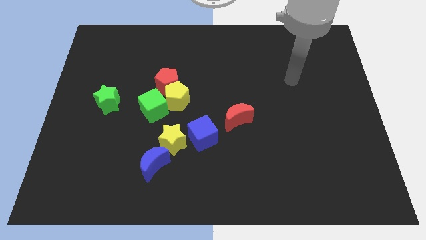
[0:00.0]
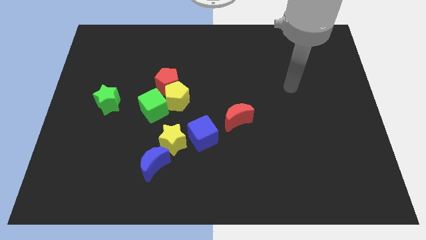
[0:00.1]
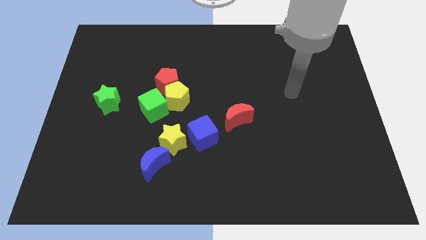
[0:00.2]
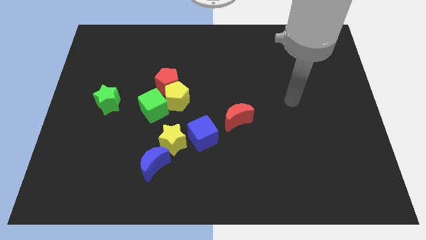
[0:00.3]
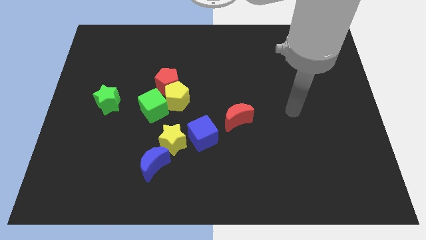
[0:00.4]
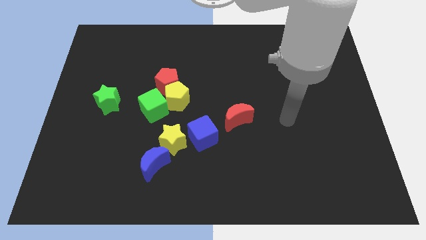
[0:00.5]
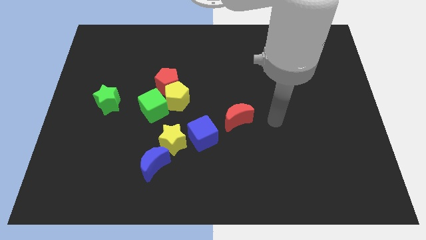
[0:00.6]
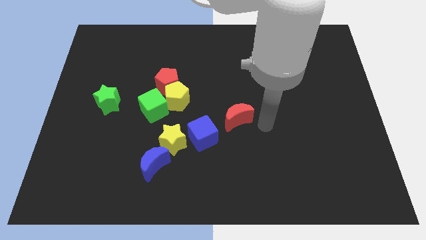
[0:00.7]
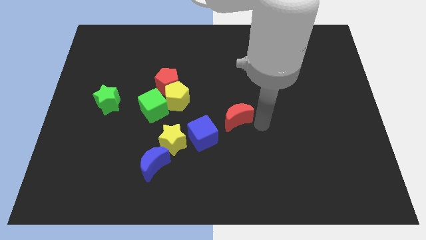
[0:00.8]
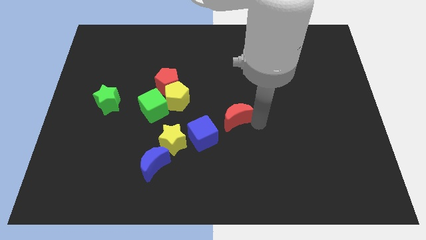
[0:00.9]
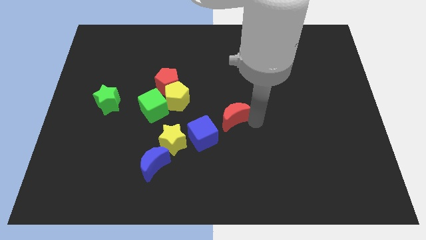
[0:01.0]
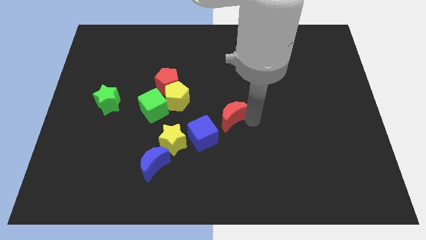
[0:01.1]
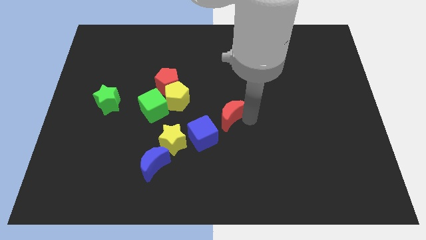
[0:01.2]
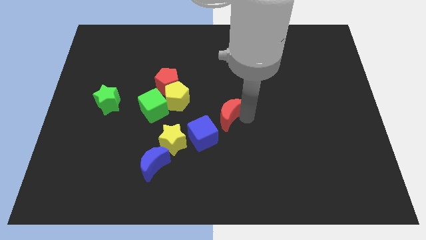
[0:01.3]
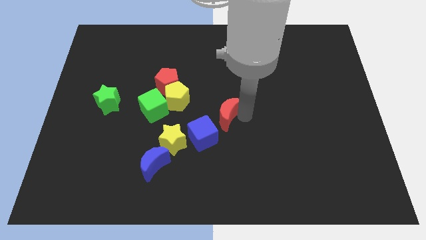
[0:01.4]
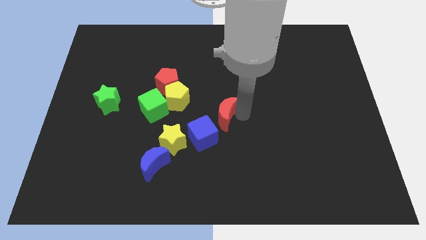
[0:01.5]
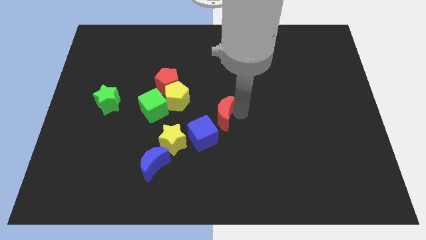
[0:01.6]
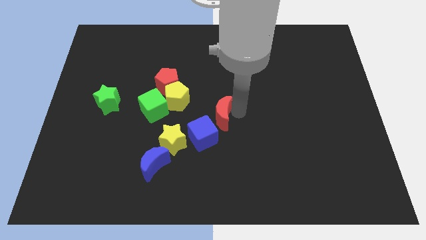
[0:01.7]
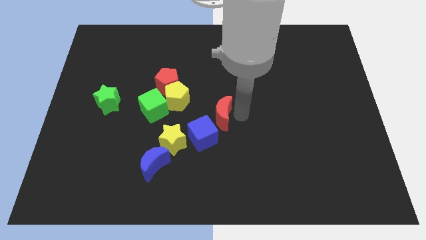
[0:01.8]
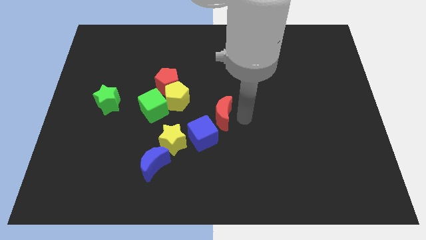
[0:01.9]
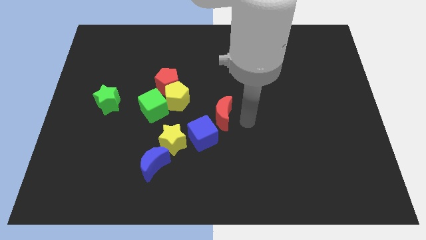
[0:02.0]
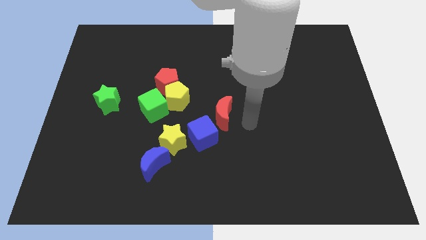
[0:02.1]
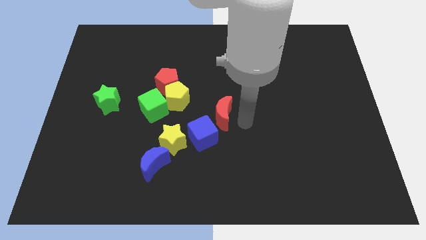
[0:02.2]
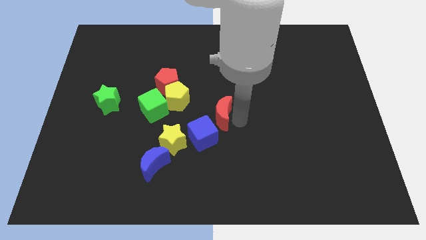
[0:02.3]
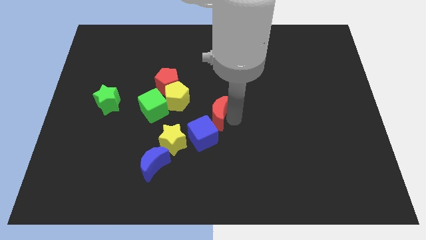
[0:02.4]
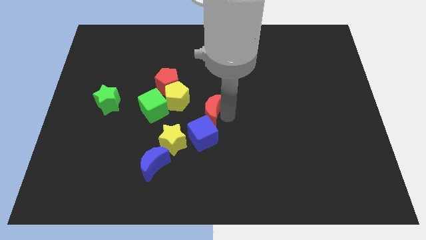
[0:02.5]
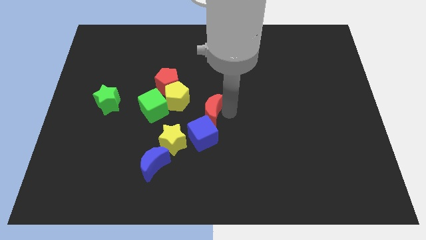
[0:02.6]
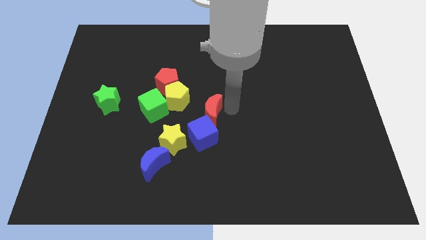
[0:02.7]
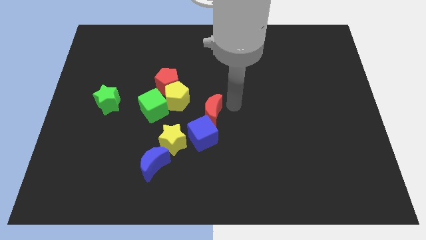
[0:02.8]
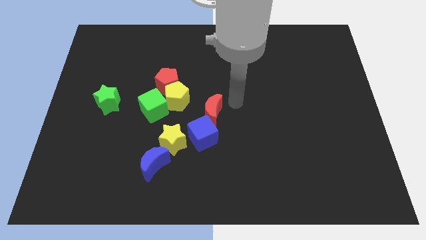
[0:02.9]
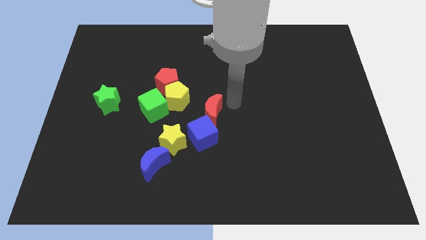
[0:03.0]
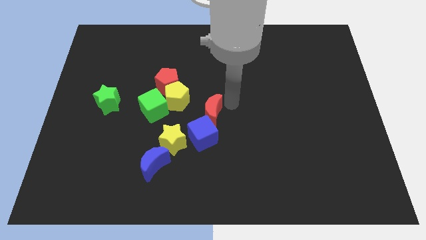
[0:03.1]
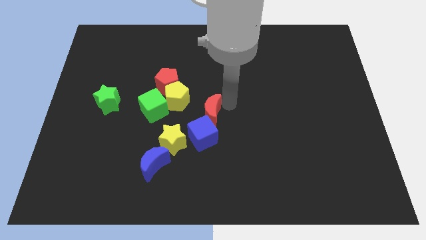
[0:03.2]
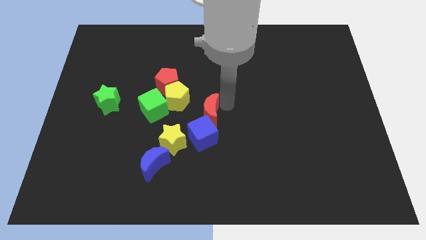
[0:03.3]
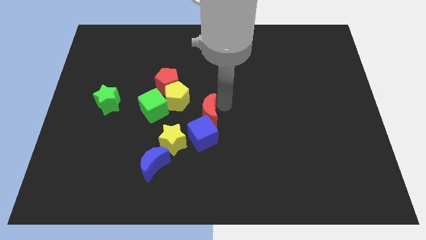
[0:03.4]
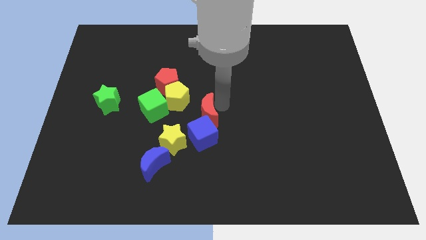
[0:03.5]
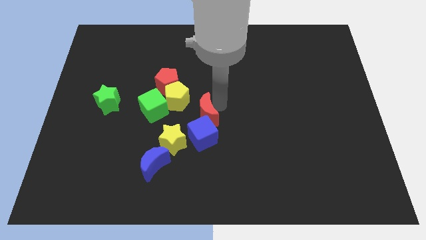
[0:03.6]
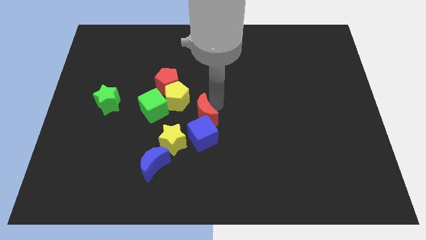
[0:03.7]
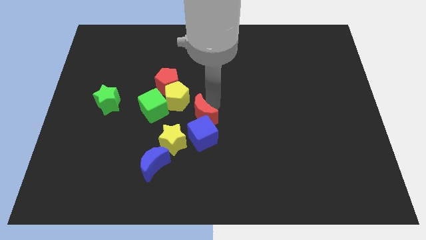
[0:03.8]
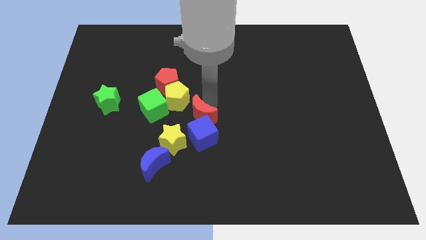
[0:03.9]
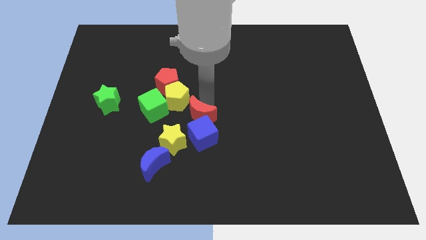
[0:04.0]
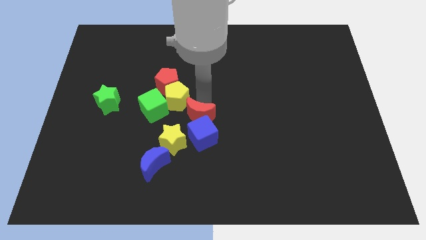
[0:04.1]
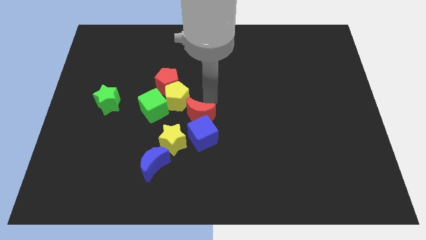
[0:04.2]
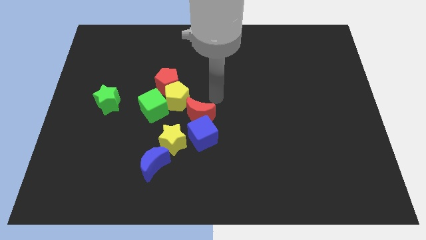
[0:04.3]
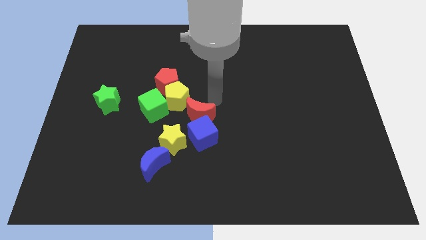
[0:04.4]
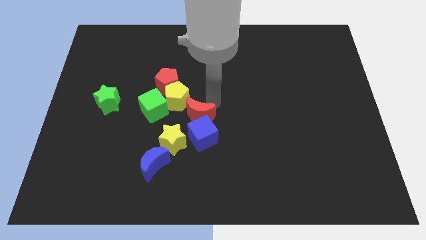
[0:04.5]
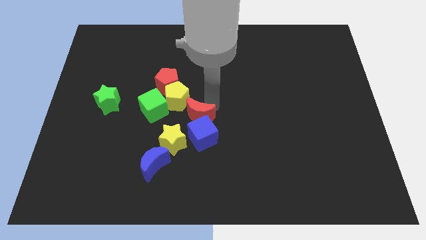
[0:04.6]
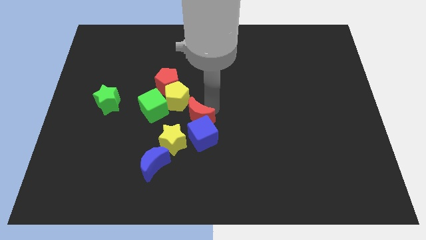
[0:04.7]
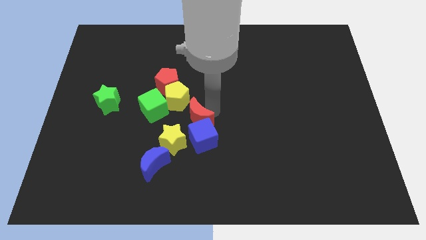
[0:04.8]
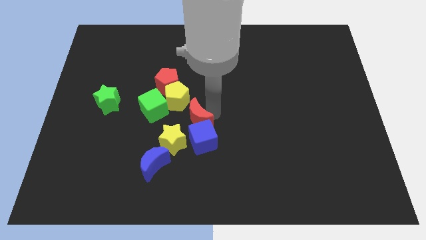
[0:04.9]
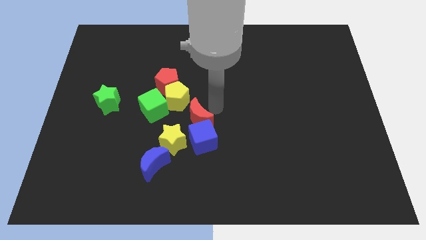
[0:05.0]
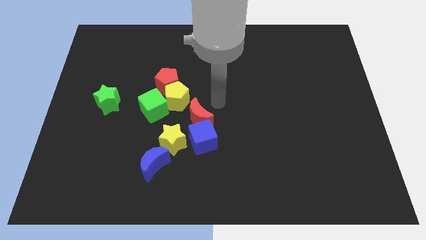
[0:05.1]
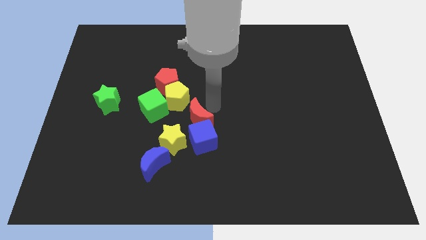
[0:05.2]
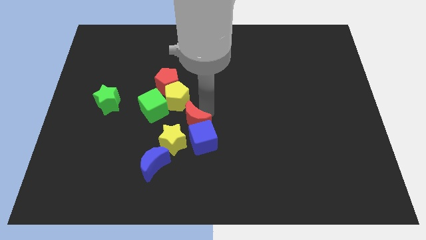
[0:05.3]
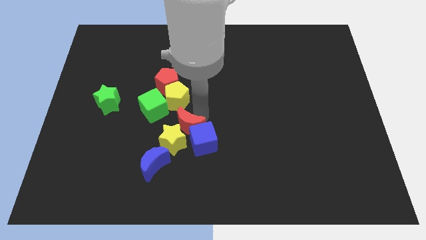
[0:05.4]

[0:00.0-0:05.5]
put the red moon to the yellow star

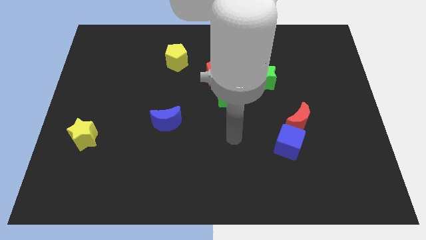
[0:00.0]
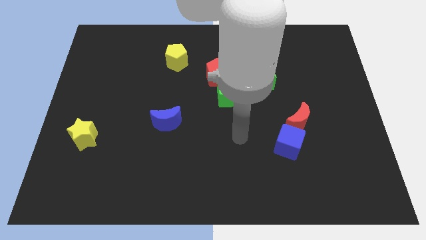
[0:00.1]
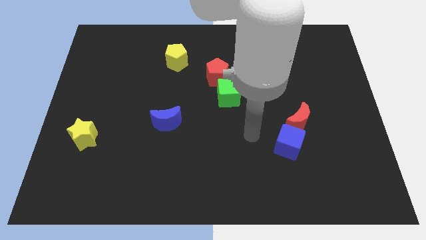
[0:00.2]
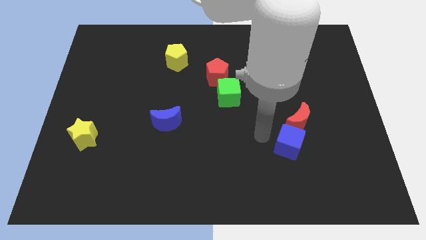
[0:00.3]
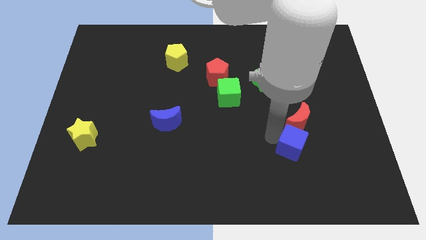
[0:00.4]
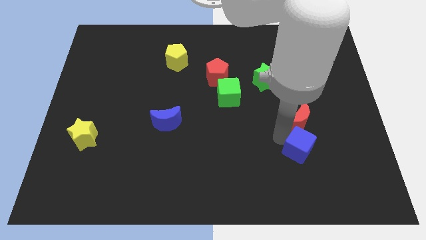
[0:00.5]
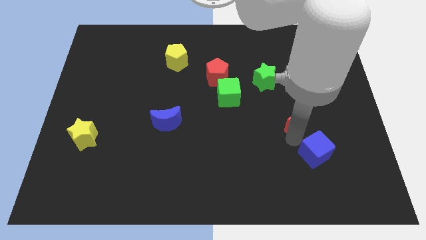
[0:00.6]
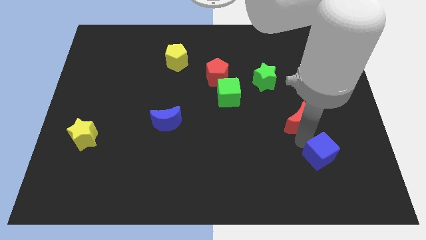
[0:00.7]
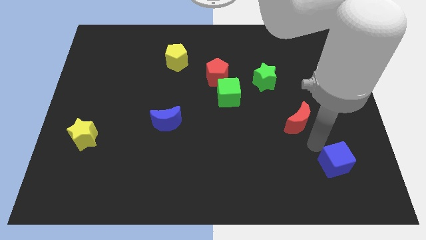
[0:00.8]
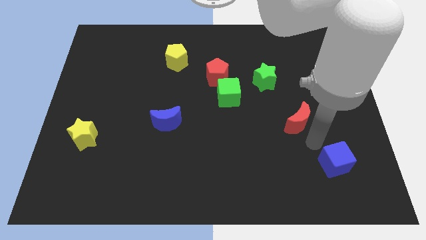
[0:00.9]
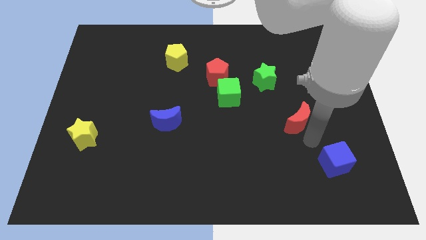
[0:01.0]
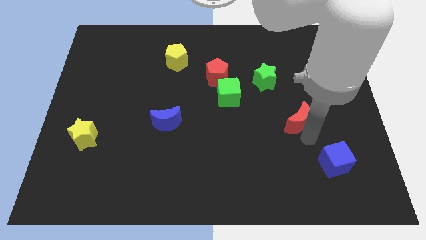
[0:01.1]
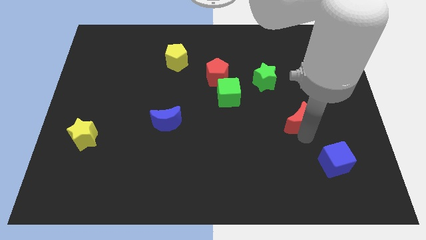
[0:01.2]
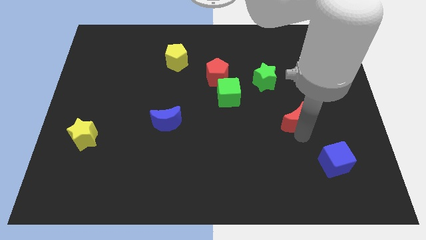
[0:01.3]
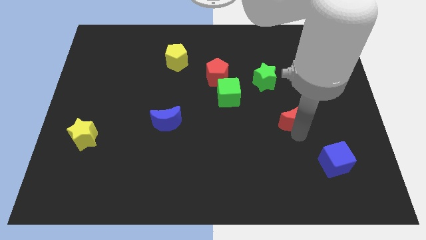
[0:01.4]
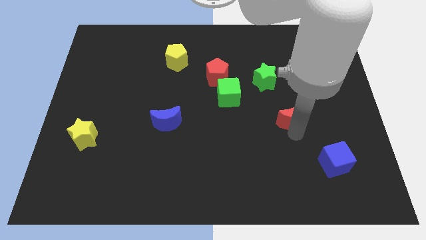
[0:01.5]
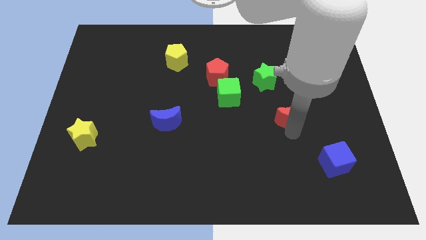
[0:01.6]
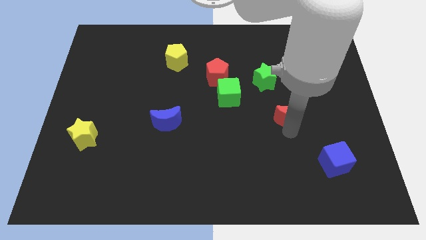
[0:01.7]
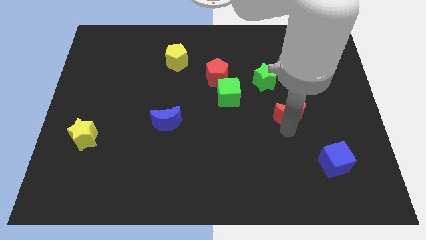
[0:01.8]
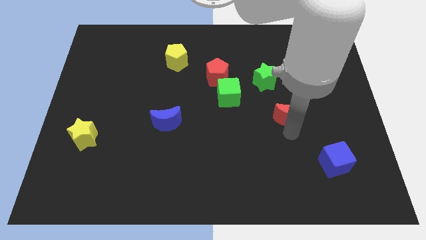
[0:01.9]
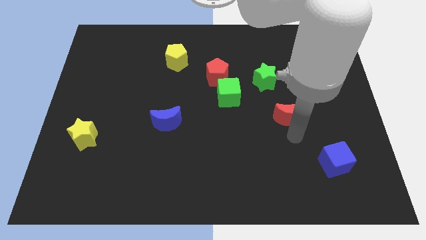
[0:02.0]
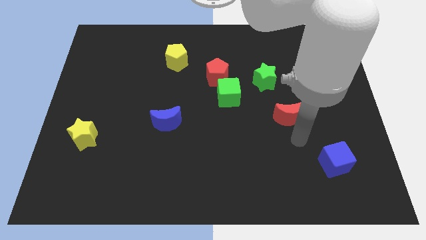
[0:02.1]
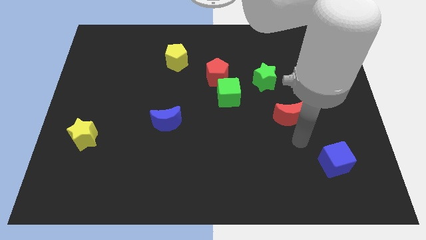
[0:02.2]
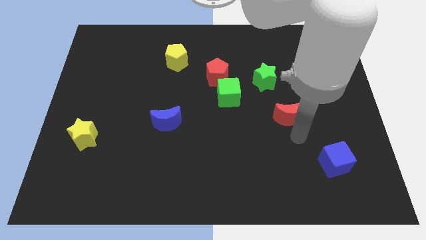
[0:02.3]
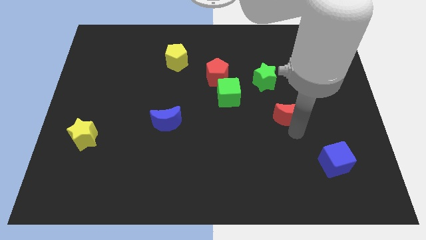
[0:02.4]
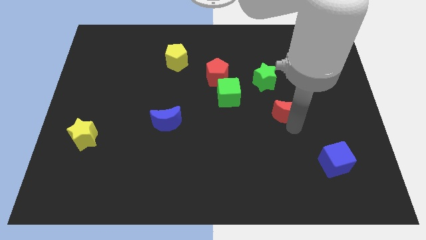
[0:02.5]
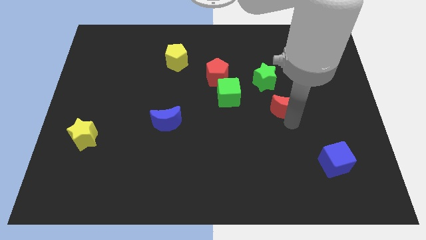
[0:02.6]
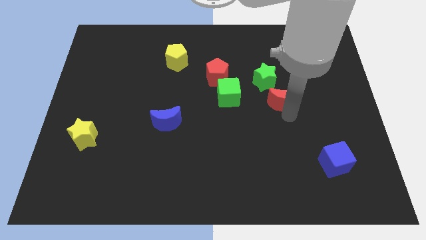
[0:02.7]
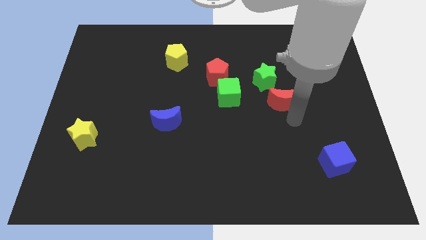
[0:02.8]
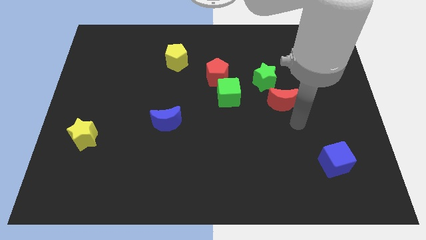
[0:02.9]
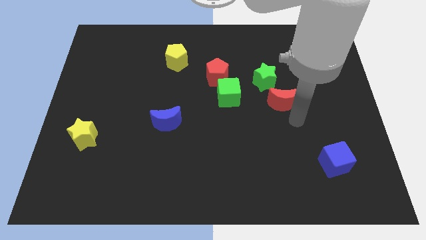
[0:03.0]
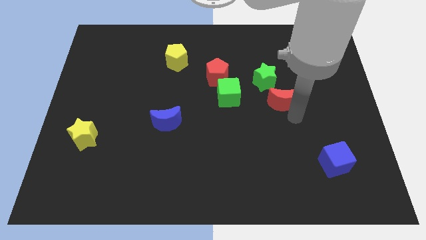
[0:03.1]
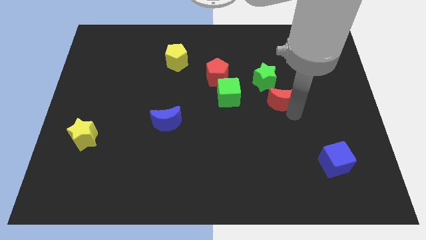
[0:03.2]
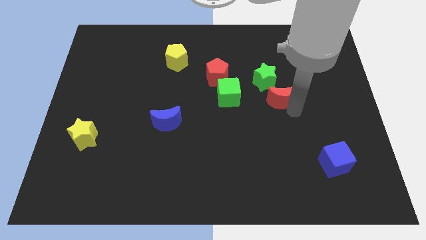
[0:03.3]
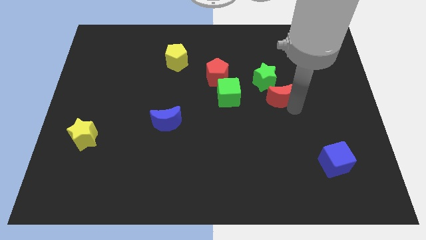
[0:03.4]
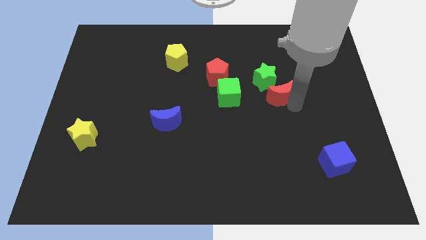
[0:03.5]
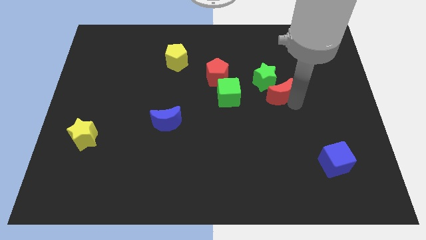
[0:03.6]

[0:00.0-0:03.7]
move the red moon next to the green star
